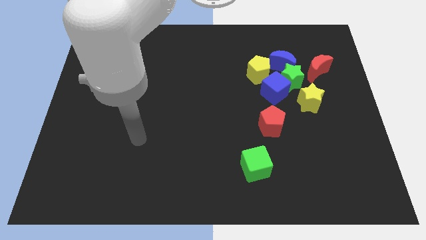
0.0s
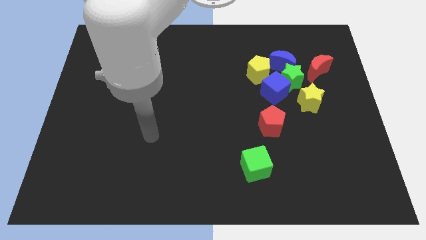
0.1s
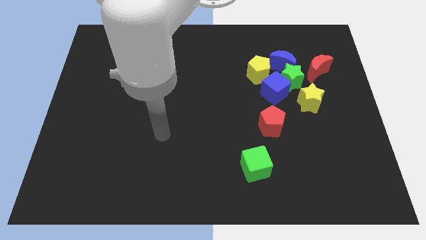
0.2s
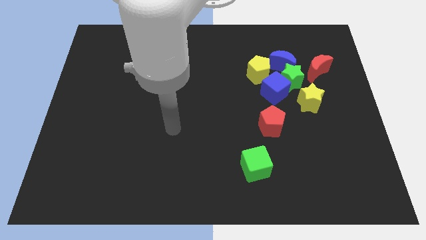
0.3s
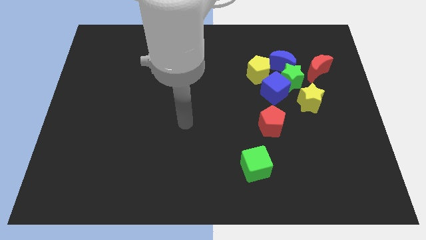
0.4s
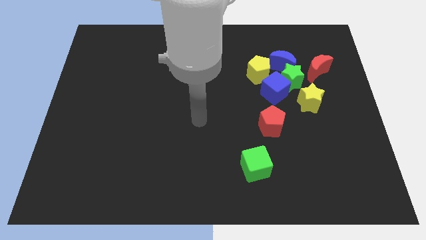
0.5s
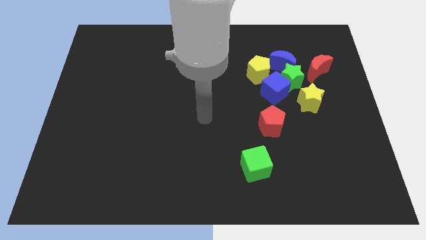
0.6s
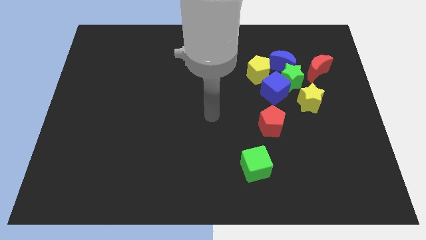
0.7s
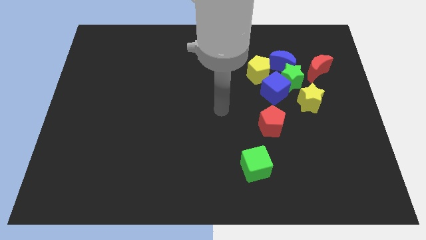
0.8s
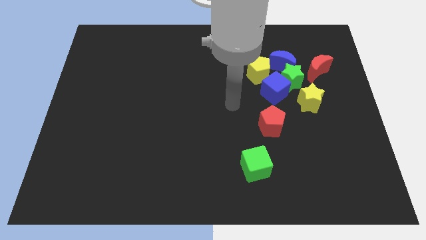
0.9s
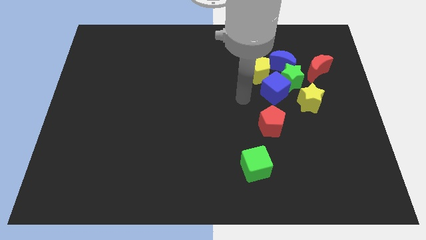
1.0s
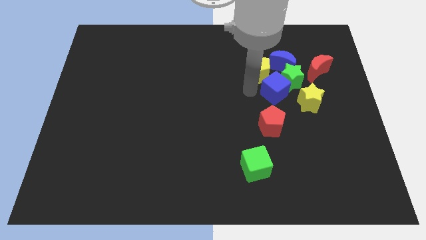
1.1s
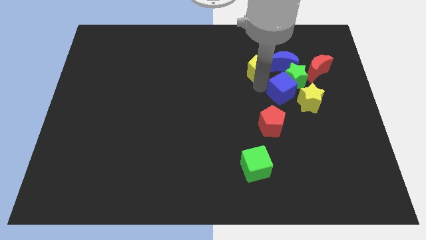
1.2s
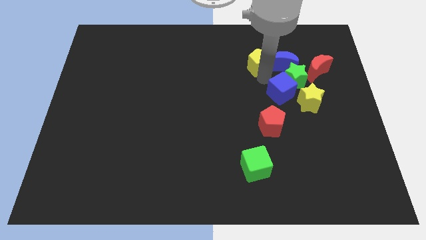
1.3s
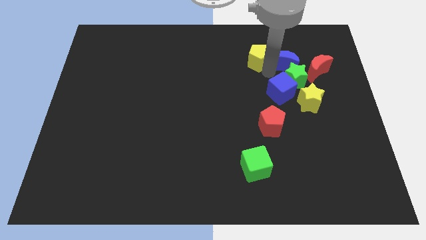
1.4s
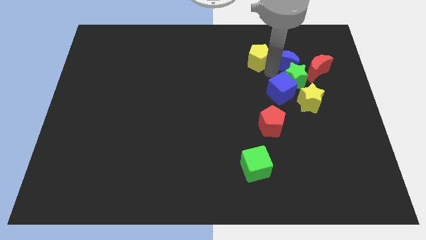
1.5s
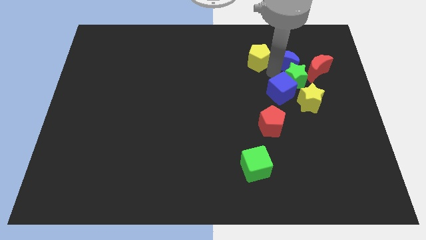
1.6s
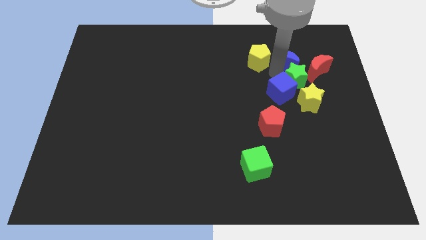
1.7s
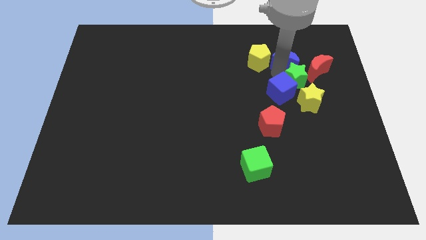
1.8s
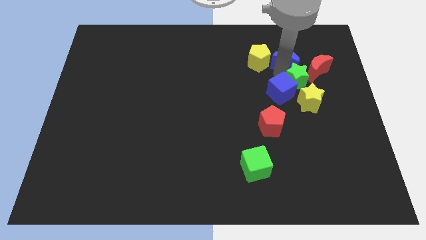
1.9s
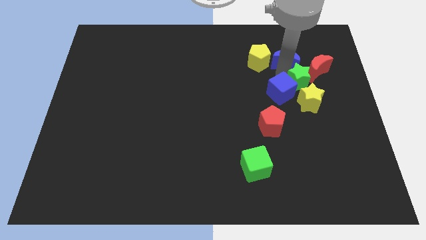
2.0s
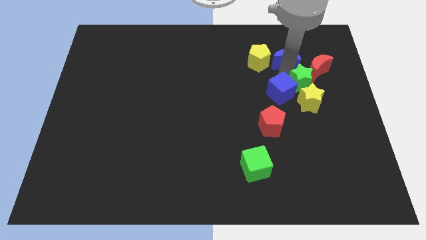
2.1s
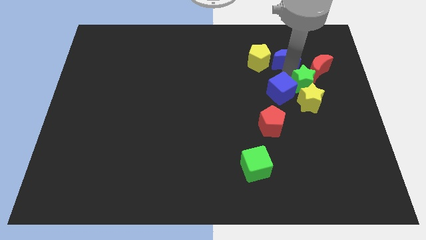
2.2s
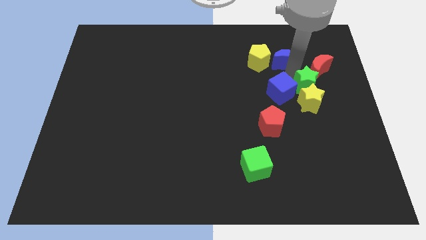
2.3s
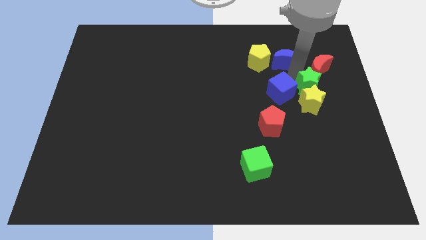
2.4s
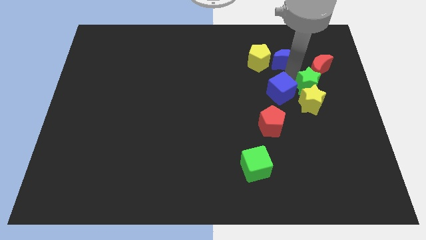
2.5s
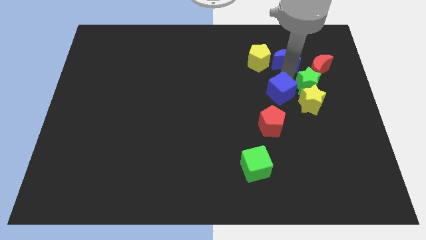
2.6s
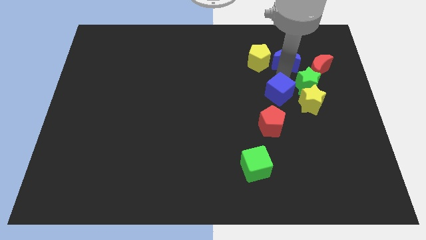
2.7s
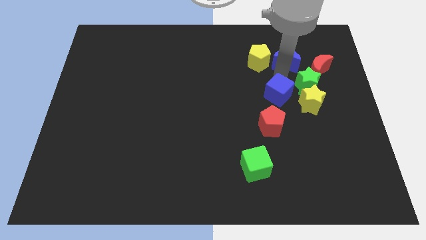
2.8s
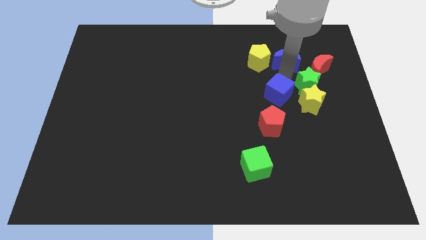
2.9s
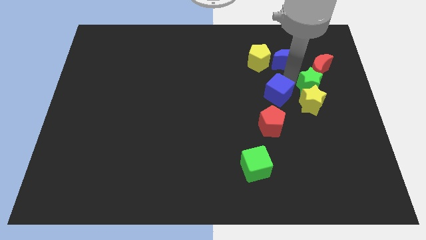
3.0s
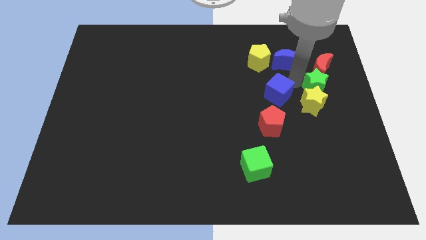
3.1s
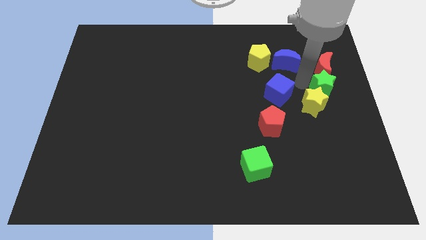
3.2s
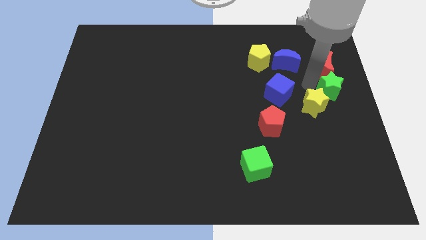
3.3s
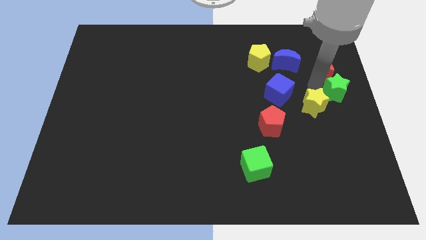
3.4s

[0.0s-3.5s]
separate the green star from the group

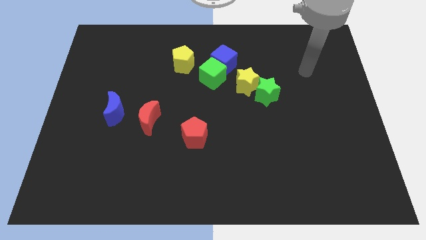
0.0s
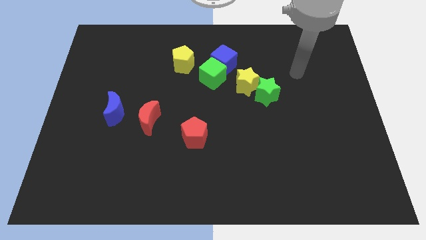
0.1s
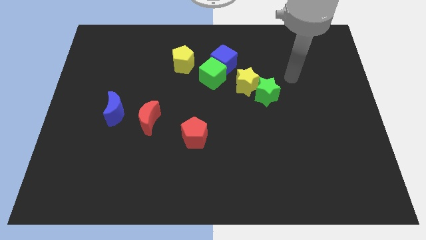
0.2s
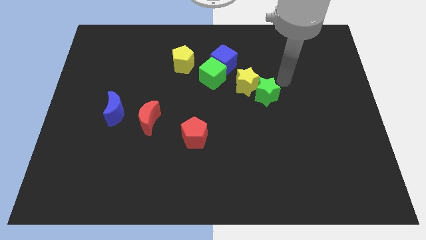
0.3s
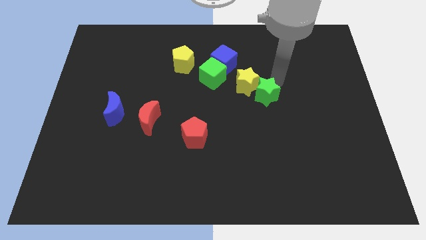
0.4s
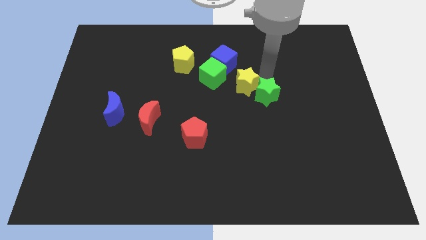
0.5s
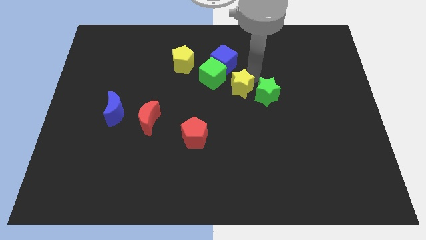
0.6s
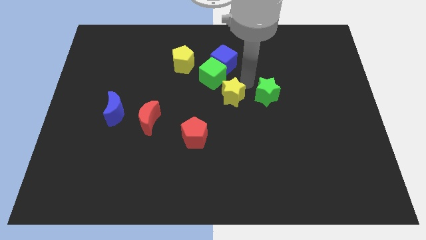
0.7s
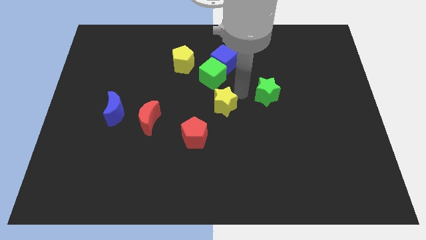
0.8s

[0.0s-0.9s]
separate the green star from the yellow star

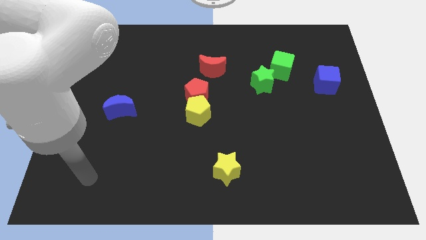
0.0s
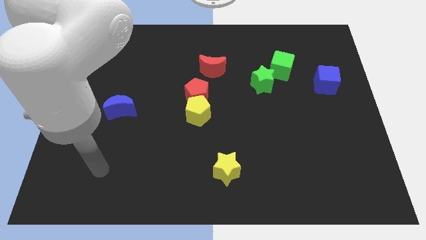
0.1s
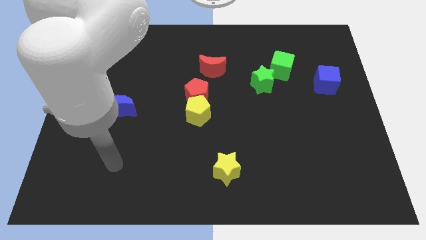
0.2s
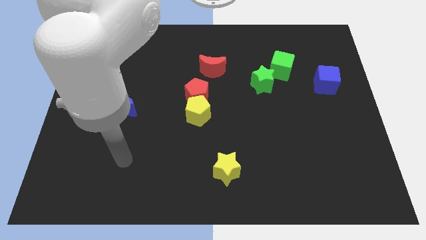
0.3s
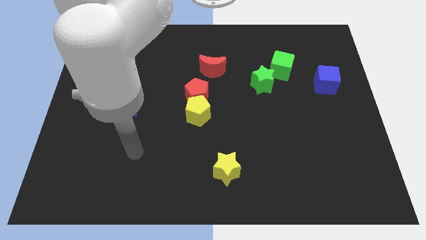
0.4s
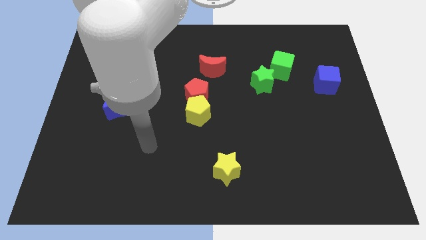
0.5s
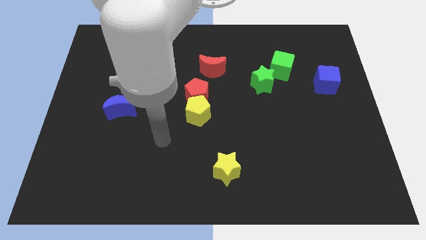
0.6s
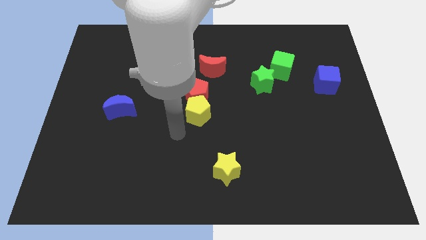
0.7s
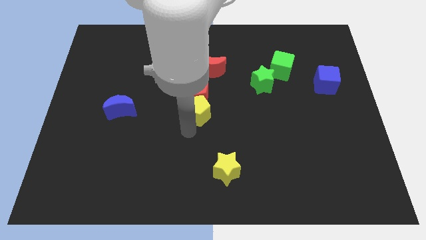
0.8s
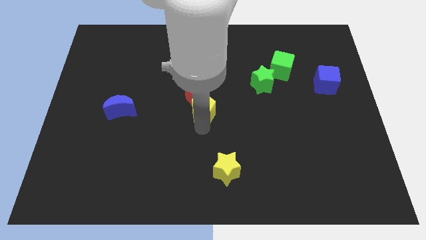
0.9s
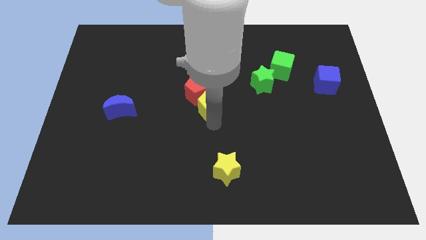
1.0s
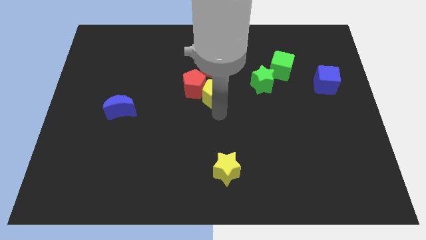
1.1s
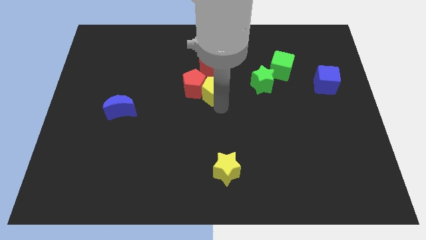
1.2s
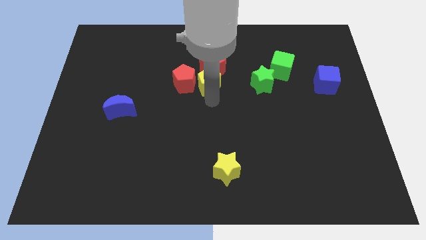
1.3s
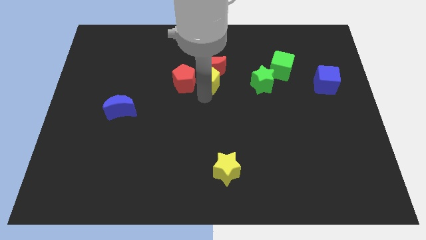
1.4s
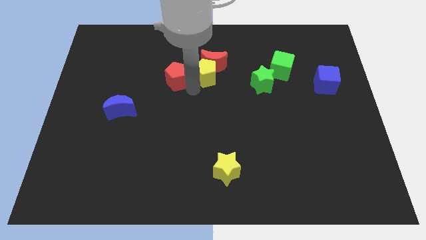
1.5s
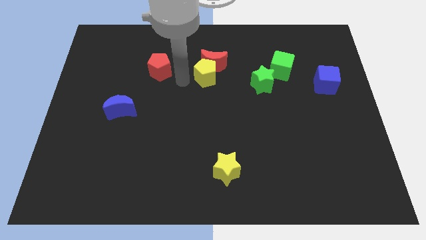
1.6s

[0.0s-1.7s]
separate the yellow pentagon from the red pentagon

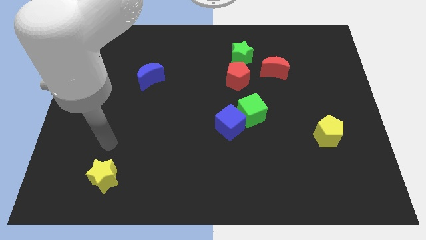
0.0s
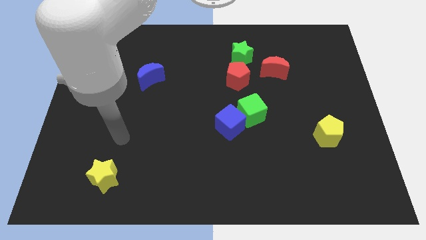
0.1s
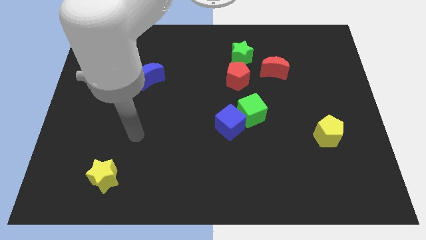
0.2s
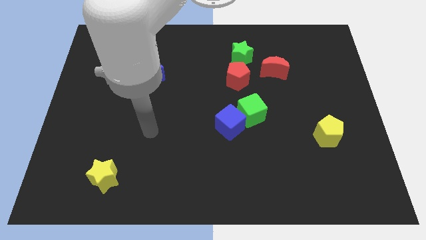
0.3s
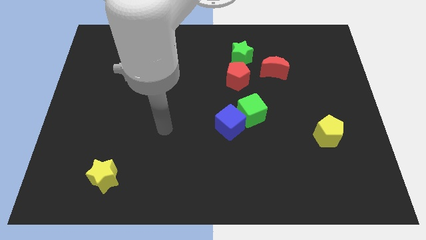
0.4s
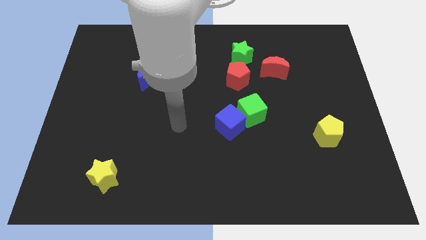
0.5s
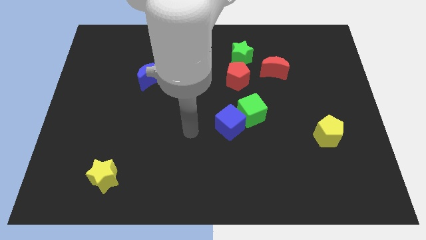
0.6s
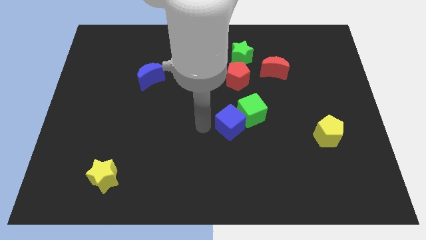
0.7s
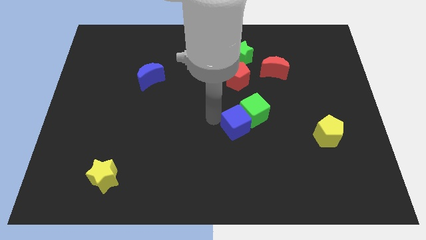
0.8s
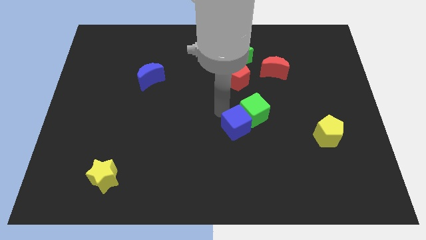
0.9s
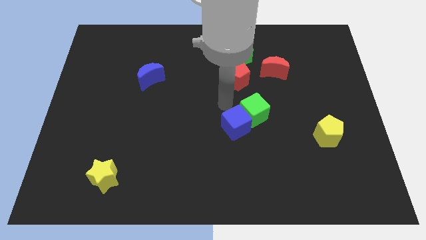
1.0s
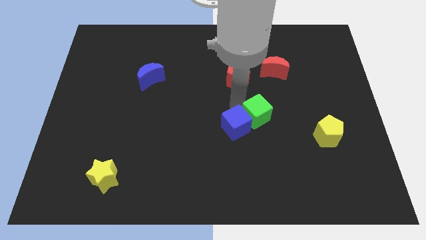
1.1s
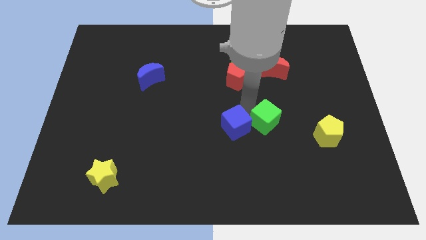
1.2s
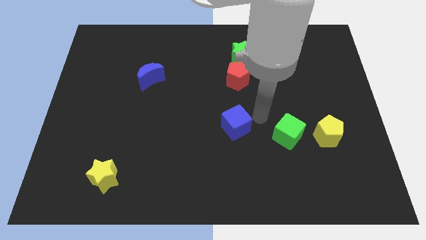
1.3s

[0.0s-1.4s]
separate the blue cube from the green cube

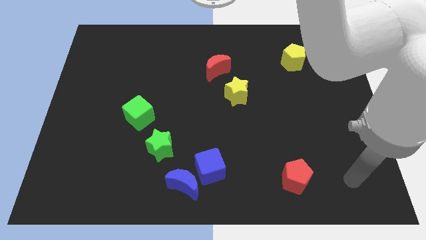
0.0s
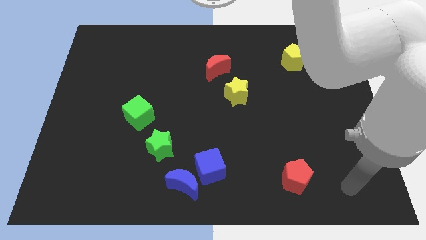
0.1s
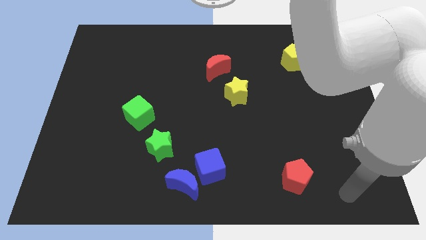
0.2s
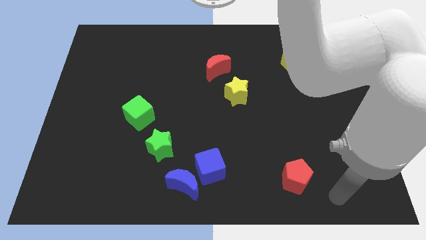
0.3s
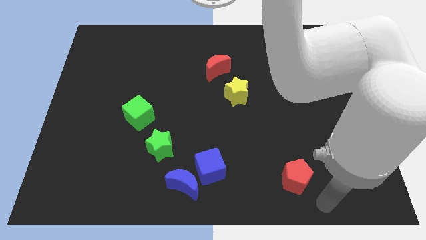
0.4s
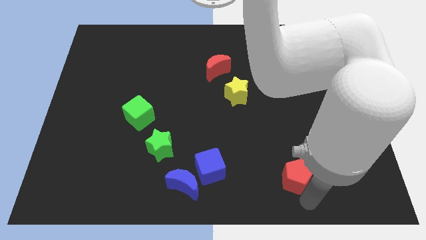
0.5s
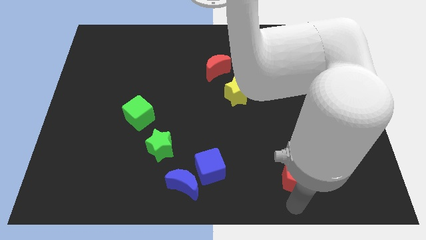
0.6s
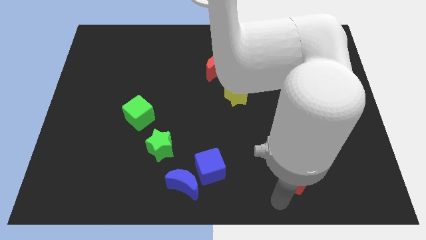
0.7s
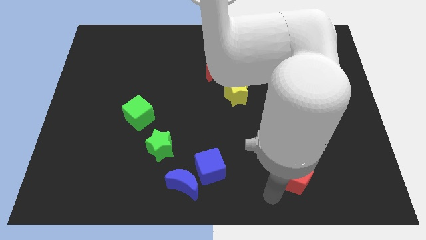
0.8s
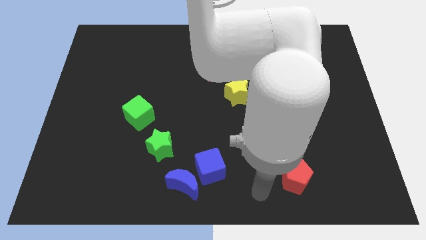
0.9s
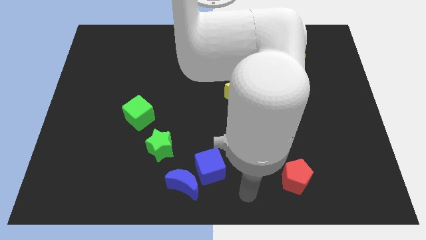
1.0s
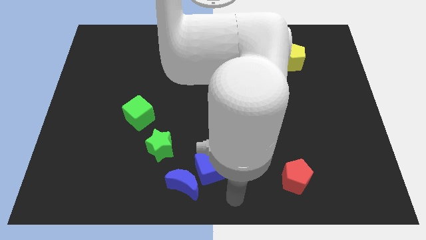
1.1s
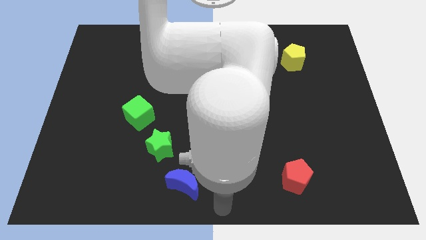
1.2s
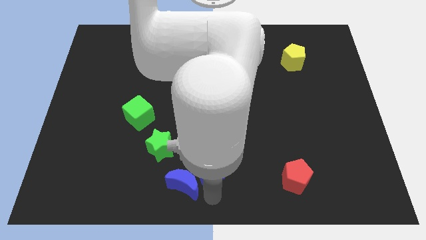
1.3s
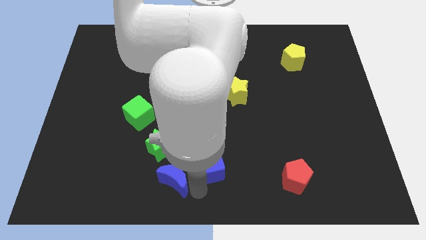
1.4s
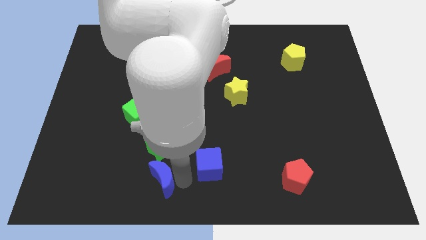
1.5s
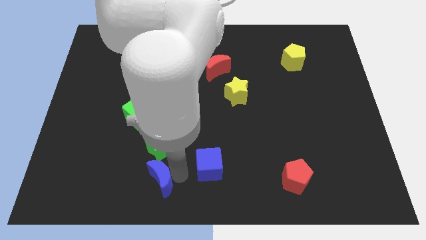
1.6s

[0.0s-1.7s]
separate the blue cube from the blue moon

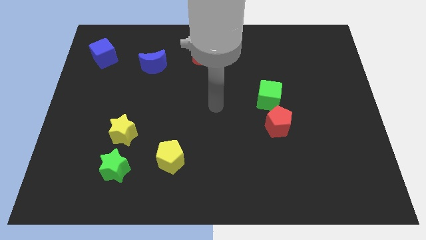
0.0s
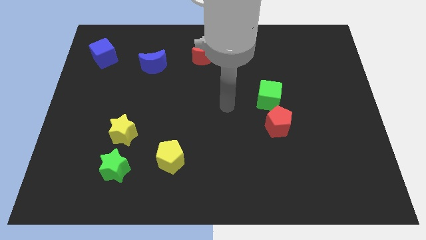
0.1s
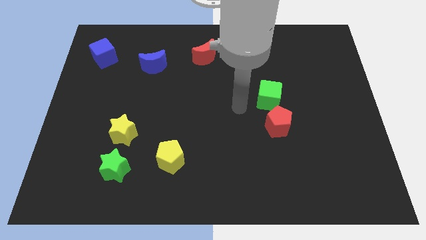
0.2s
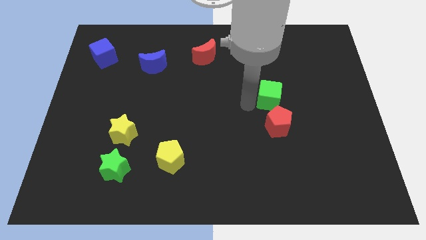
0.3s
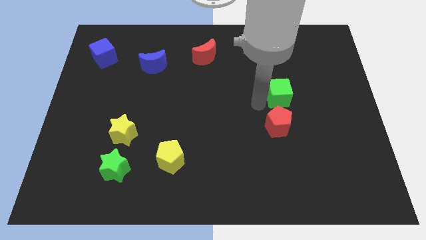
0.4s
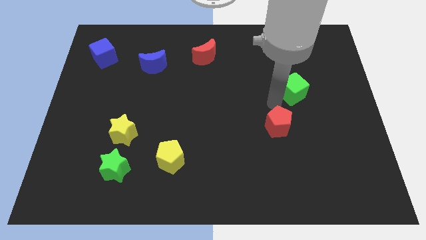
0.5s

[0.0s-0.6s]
separate the red pentagon from the green cube
